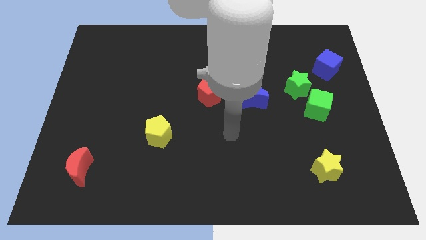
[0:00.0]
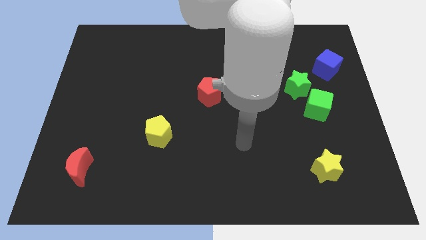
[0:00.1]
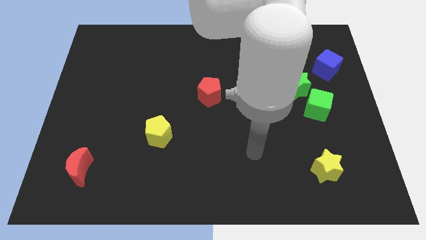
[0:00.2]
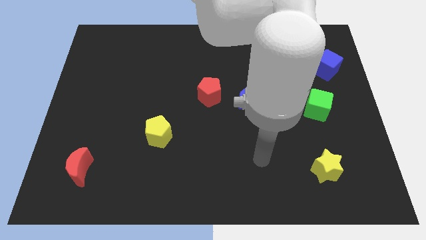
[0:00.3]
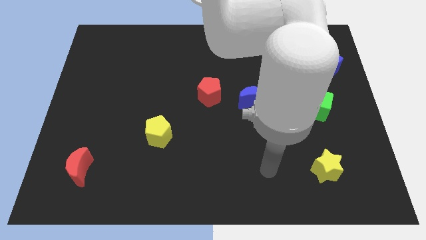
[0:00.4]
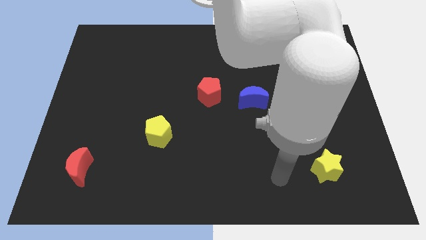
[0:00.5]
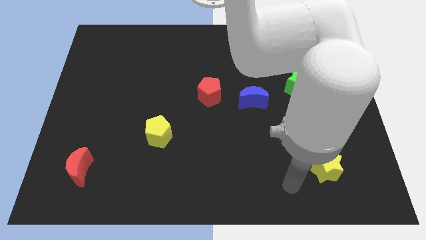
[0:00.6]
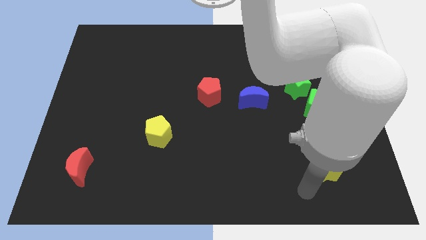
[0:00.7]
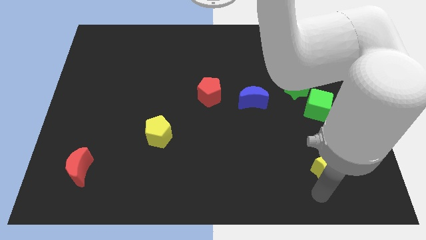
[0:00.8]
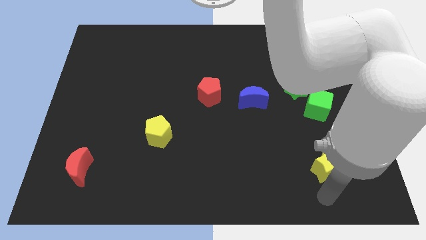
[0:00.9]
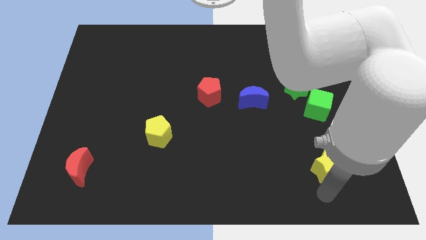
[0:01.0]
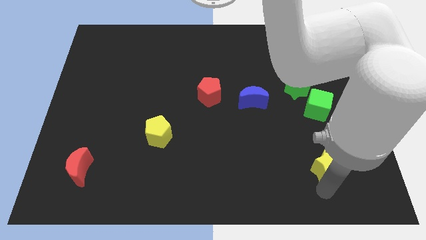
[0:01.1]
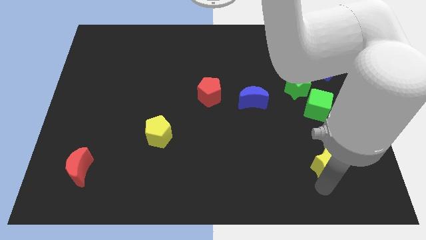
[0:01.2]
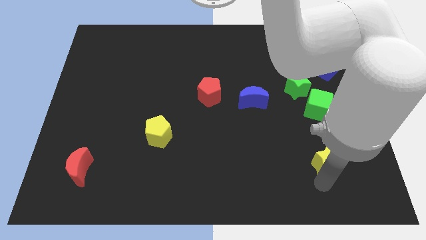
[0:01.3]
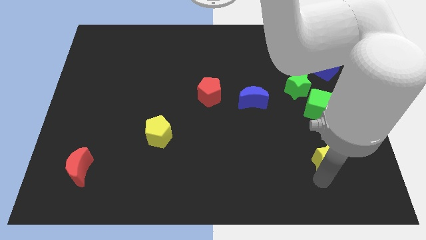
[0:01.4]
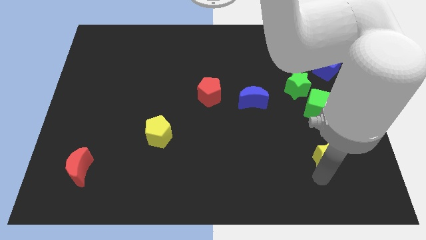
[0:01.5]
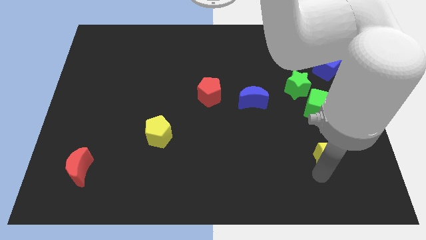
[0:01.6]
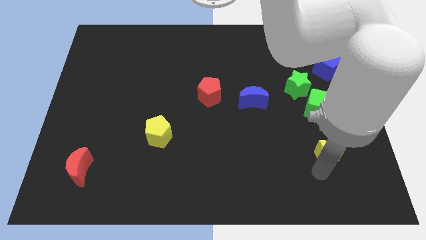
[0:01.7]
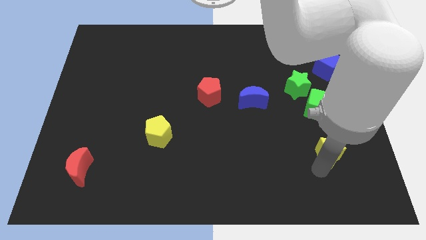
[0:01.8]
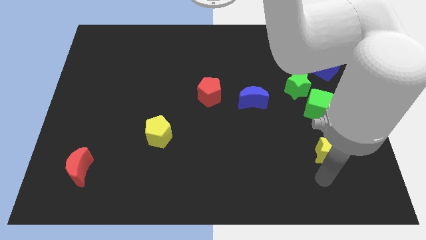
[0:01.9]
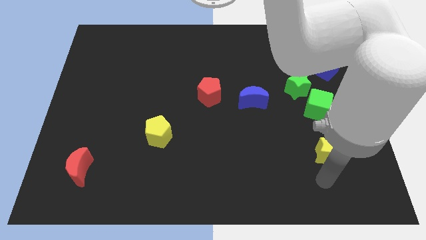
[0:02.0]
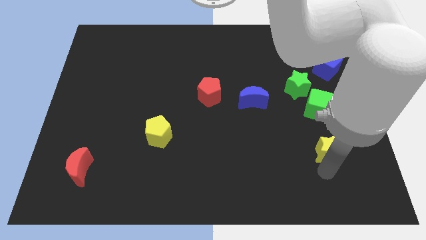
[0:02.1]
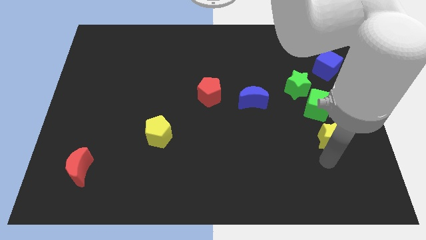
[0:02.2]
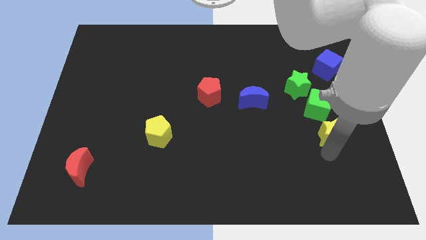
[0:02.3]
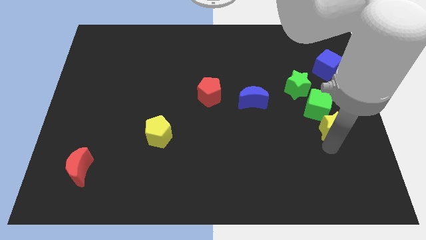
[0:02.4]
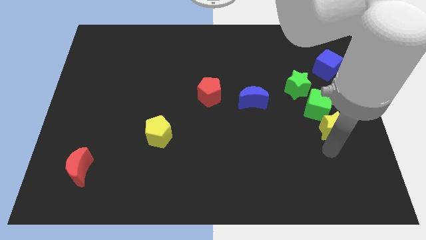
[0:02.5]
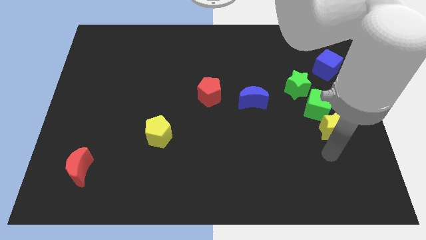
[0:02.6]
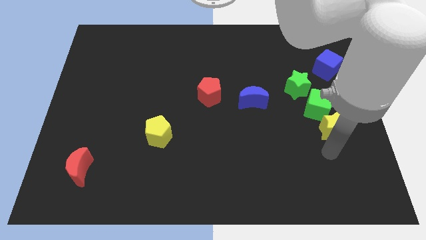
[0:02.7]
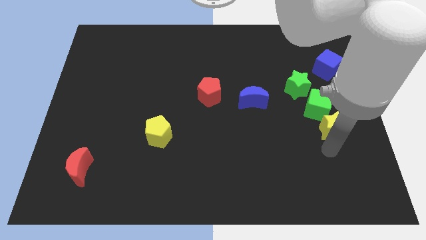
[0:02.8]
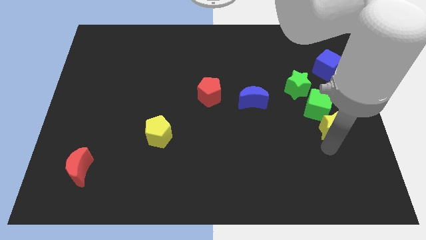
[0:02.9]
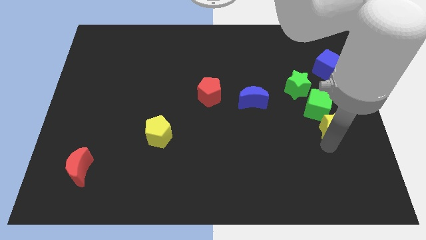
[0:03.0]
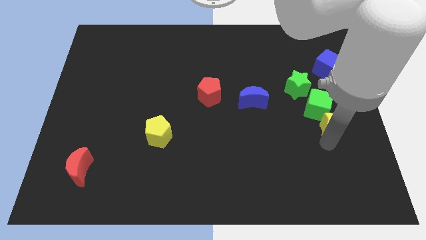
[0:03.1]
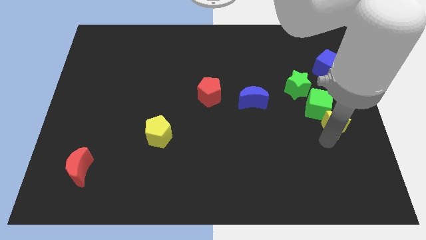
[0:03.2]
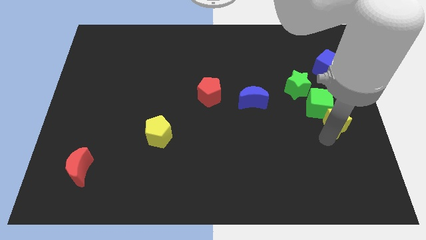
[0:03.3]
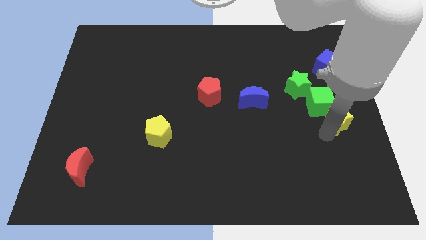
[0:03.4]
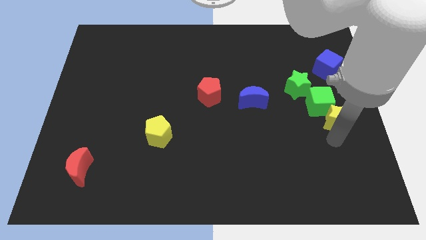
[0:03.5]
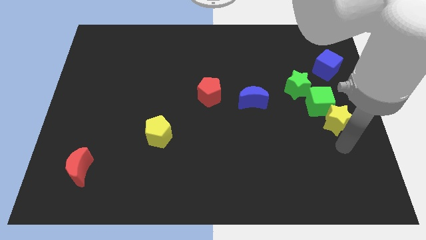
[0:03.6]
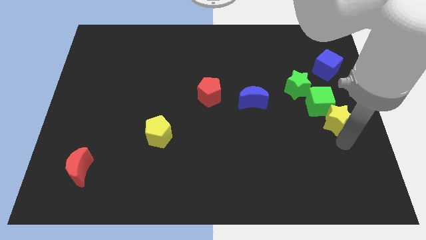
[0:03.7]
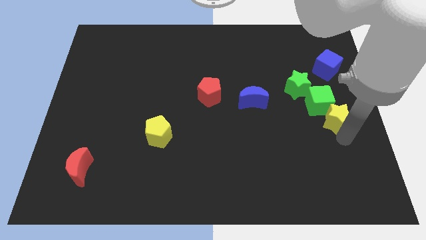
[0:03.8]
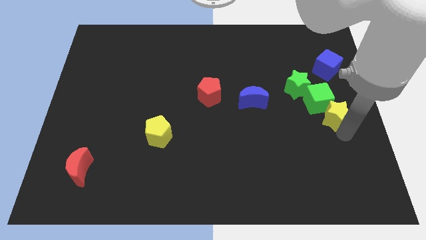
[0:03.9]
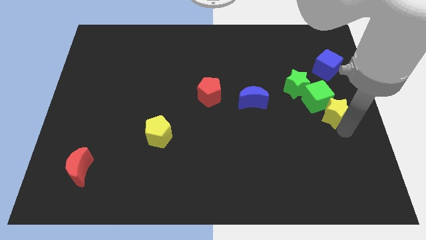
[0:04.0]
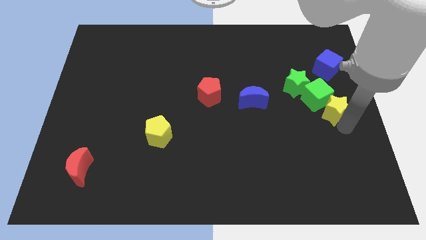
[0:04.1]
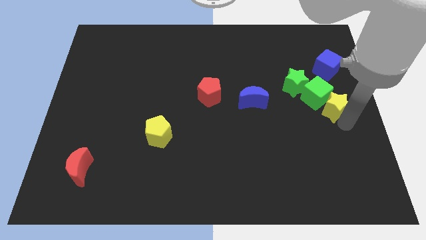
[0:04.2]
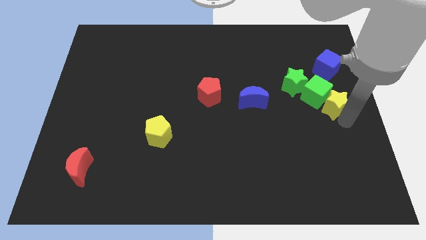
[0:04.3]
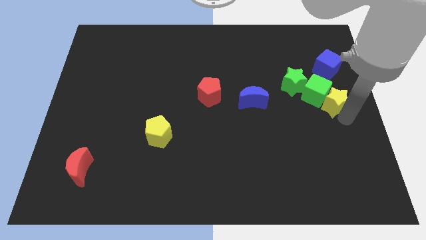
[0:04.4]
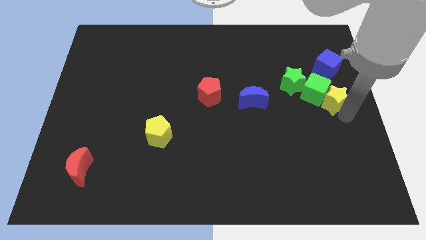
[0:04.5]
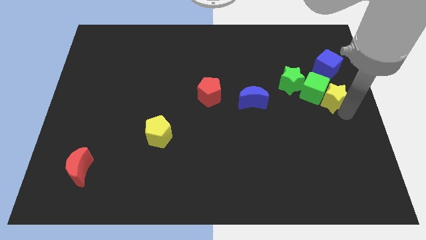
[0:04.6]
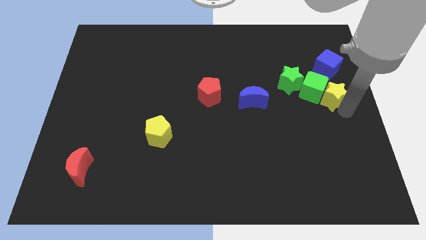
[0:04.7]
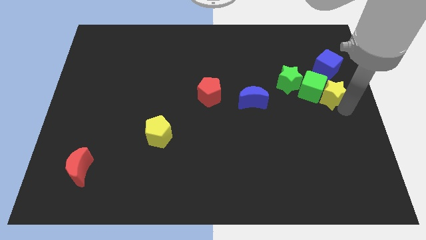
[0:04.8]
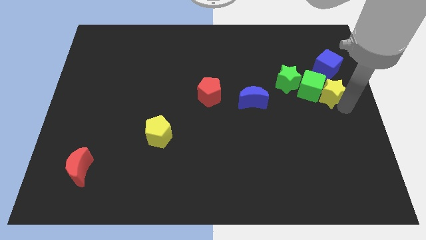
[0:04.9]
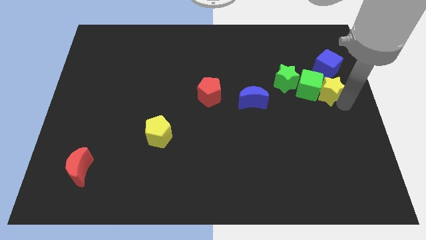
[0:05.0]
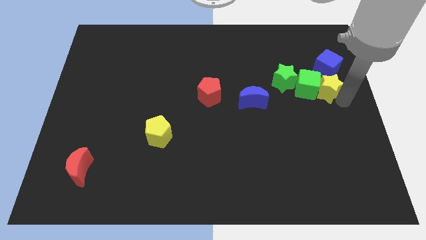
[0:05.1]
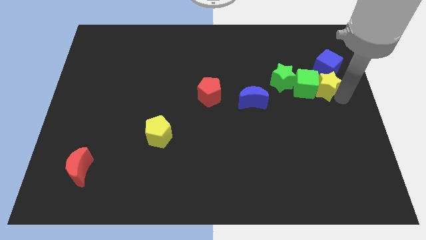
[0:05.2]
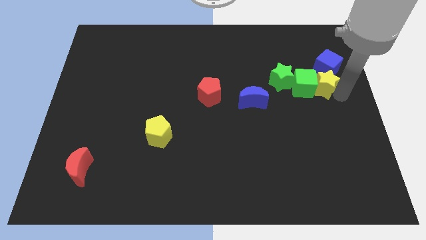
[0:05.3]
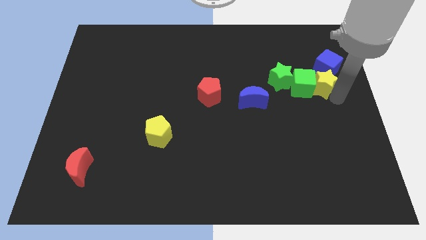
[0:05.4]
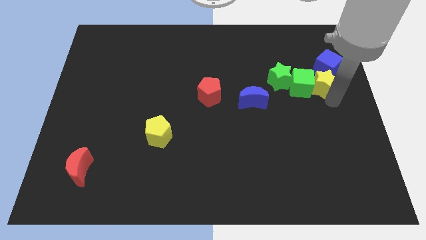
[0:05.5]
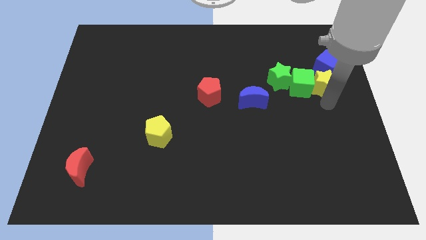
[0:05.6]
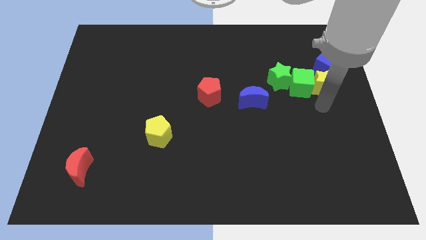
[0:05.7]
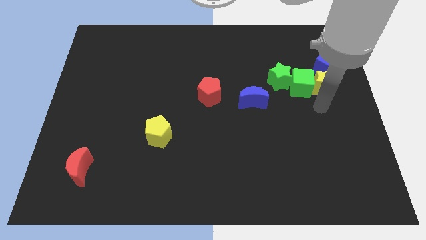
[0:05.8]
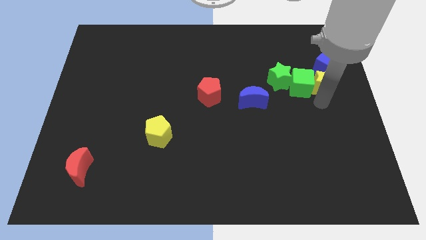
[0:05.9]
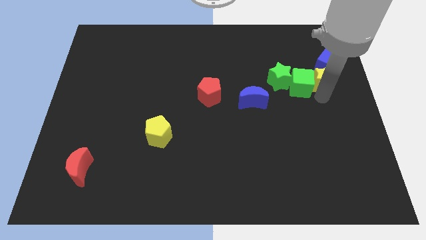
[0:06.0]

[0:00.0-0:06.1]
push the yellow star next to the blue cube

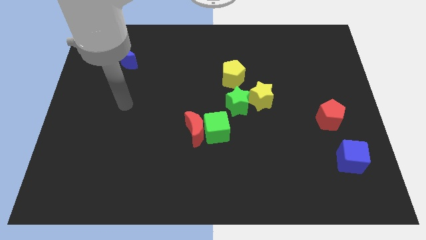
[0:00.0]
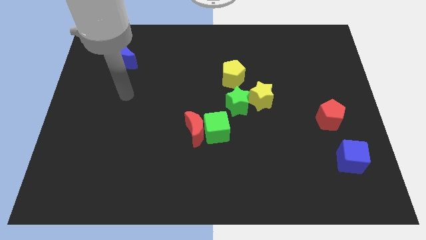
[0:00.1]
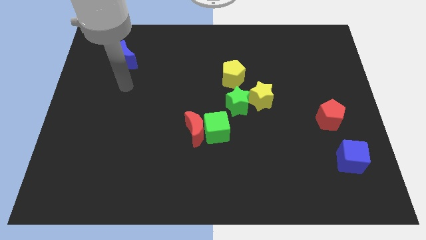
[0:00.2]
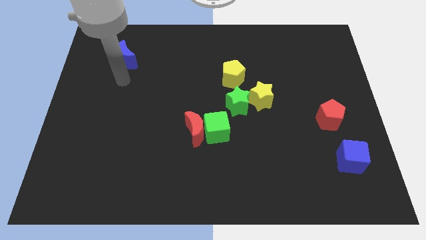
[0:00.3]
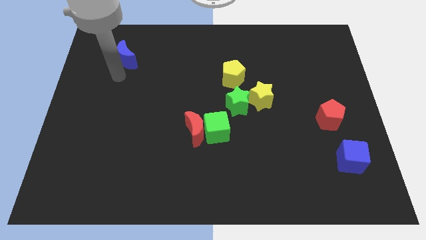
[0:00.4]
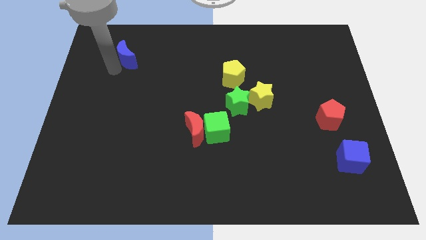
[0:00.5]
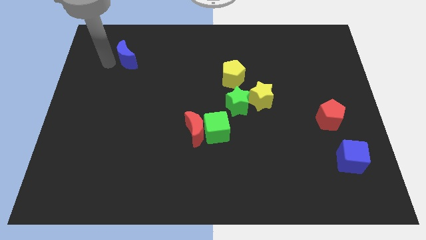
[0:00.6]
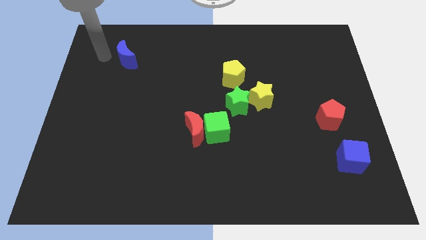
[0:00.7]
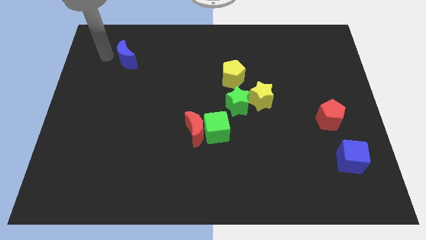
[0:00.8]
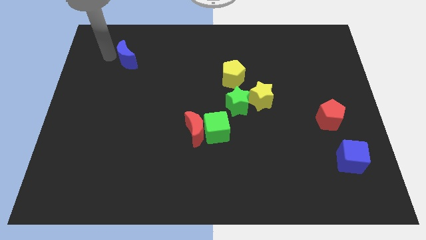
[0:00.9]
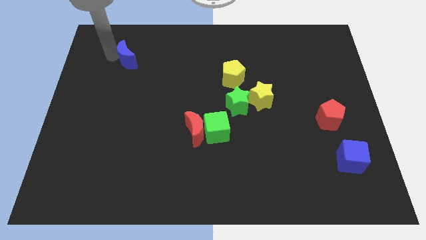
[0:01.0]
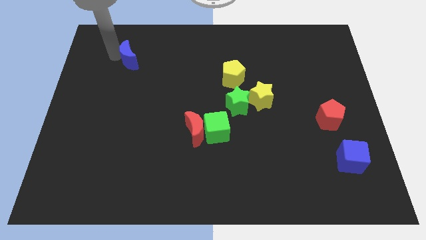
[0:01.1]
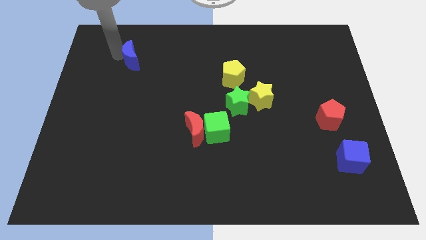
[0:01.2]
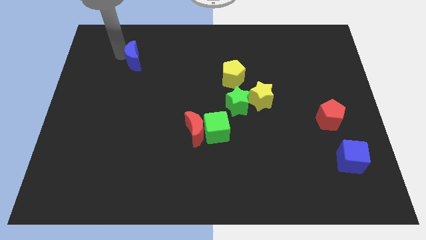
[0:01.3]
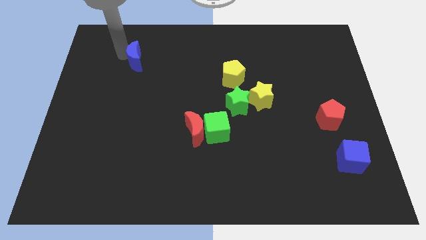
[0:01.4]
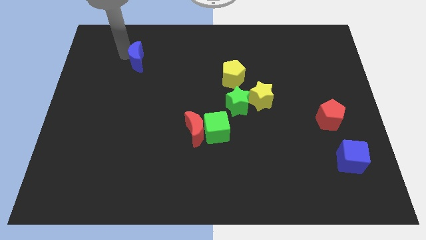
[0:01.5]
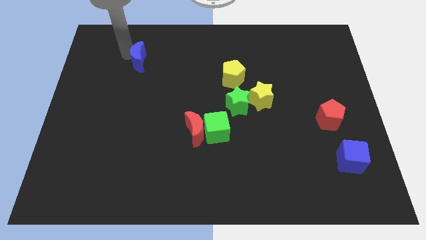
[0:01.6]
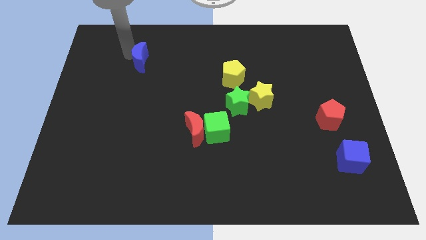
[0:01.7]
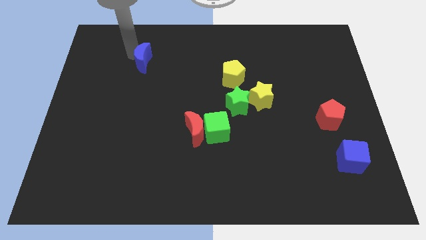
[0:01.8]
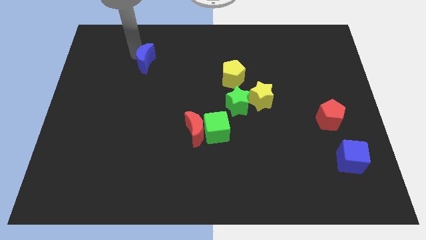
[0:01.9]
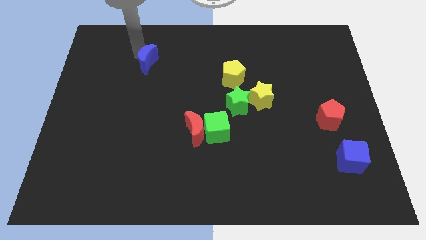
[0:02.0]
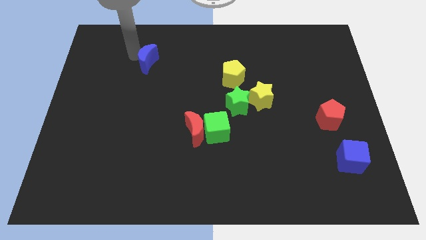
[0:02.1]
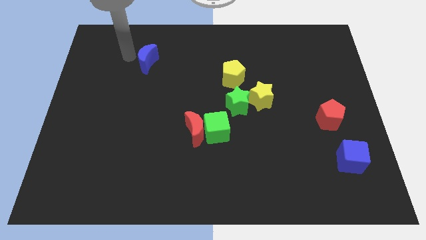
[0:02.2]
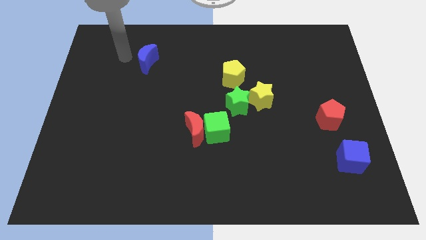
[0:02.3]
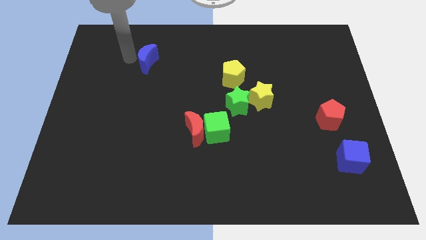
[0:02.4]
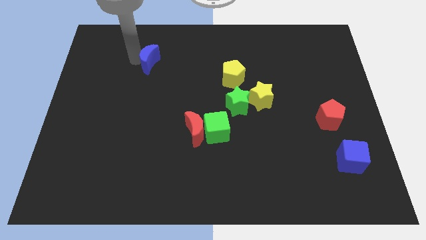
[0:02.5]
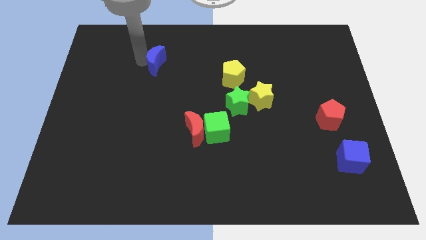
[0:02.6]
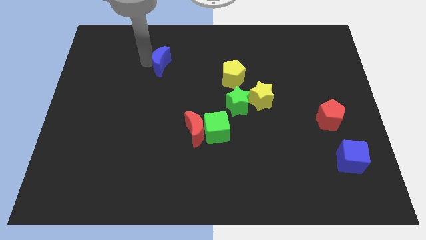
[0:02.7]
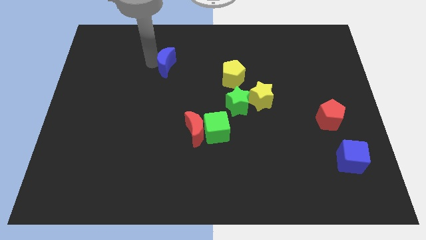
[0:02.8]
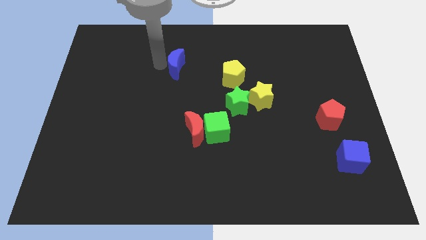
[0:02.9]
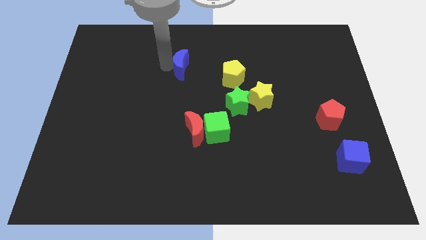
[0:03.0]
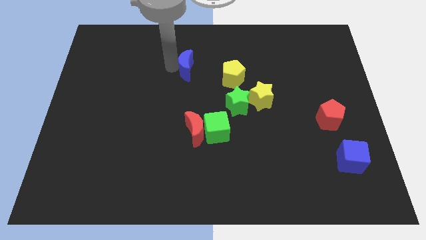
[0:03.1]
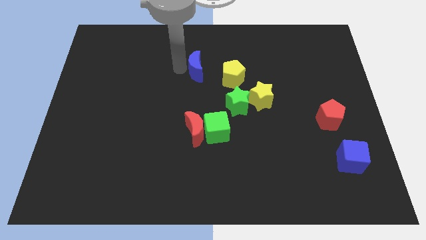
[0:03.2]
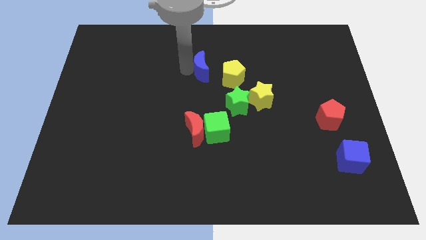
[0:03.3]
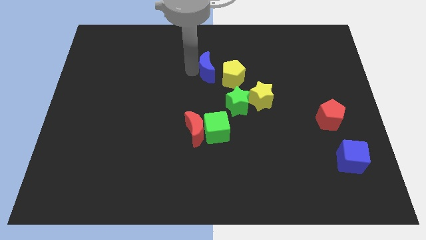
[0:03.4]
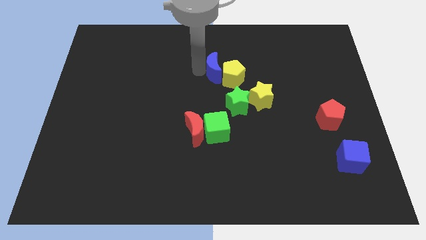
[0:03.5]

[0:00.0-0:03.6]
slide the blue moon towards the yellow pentagon
